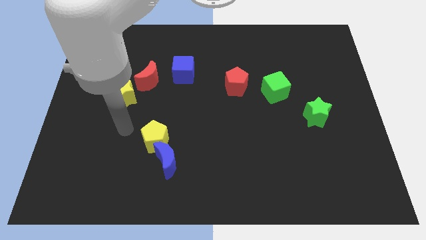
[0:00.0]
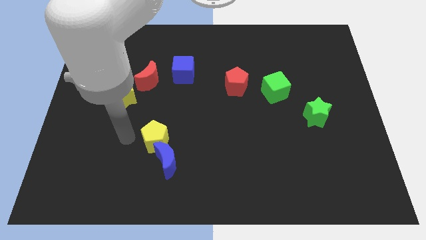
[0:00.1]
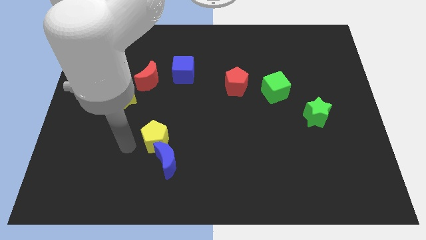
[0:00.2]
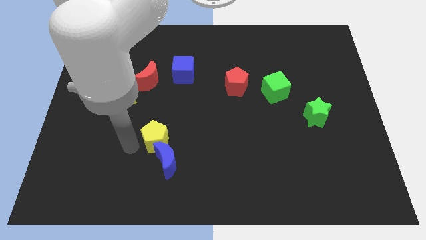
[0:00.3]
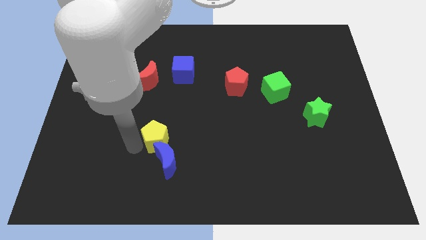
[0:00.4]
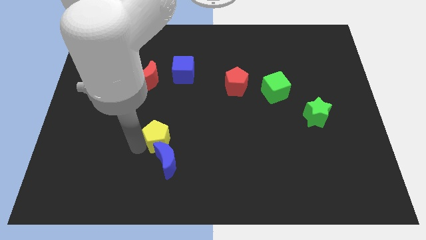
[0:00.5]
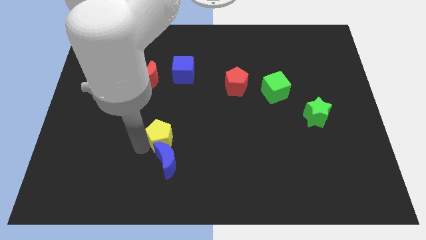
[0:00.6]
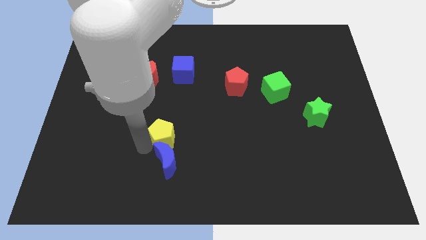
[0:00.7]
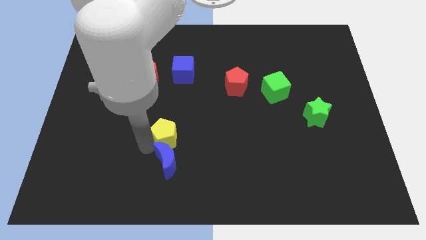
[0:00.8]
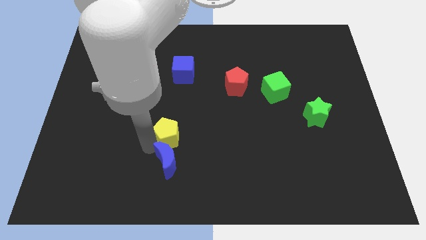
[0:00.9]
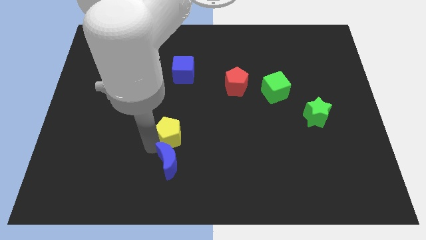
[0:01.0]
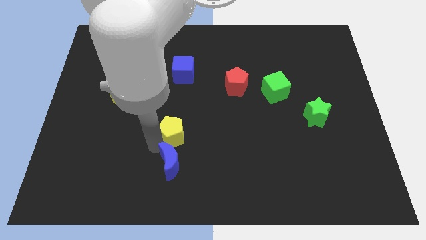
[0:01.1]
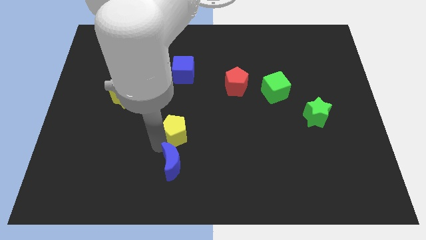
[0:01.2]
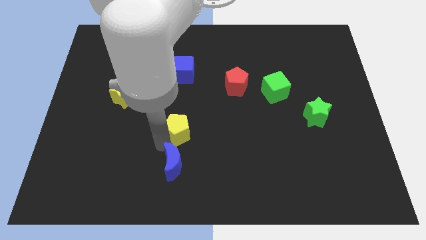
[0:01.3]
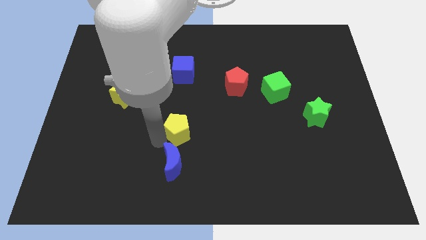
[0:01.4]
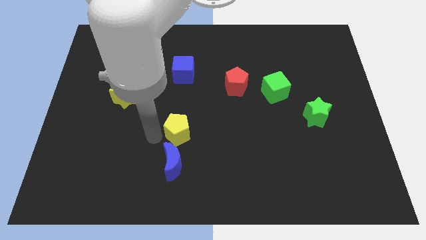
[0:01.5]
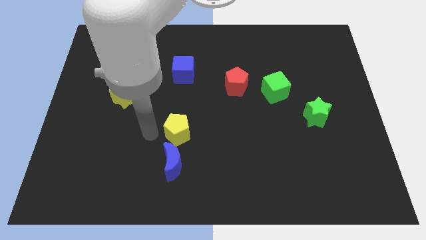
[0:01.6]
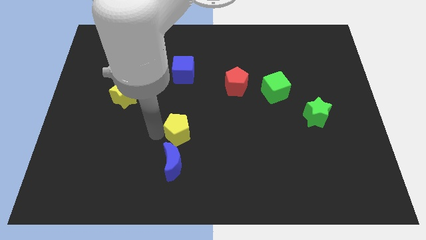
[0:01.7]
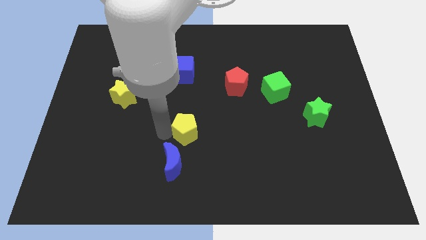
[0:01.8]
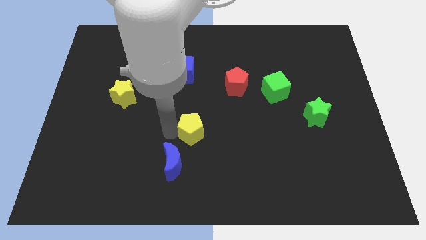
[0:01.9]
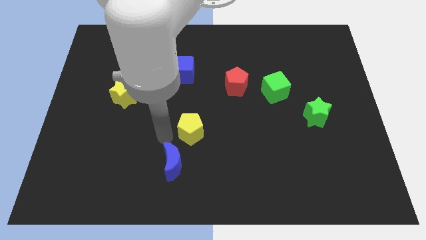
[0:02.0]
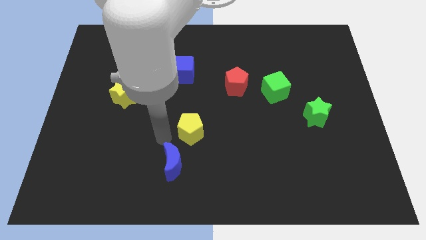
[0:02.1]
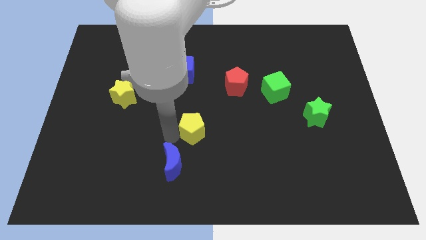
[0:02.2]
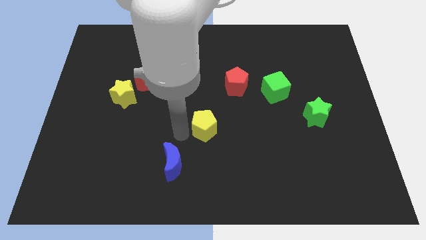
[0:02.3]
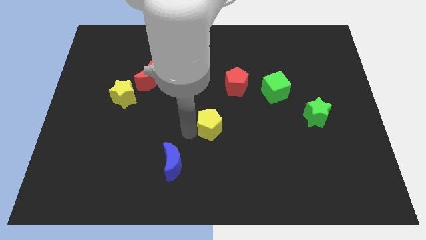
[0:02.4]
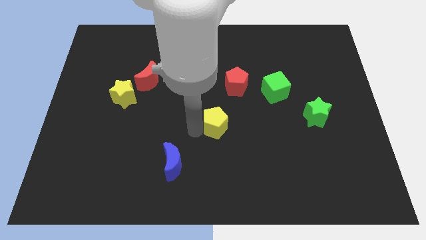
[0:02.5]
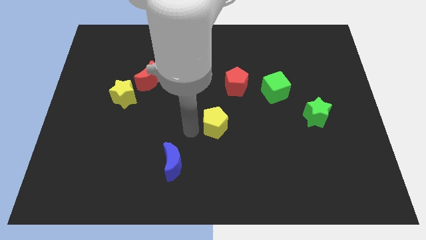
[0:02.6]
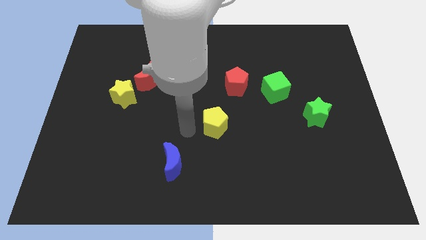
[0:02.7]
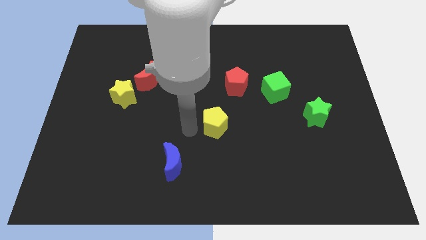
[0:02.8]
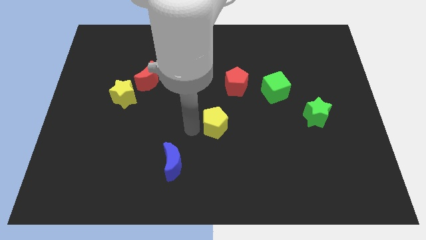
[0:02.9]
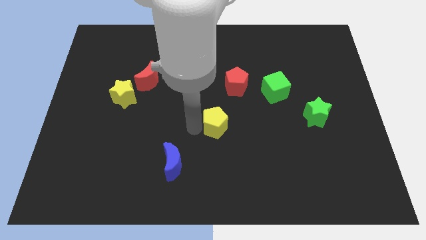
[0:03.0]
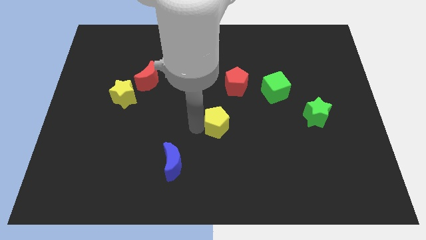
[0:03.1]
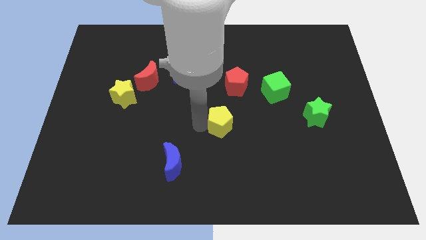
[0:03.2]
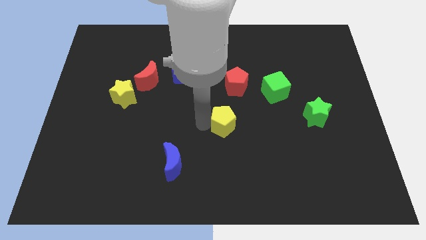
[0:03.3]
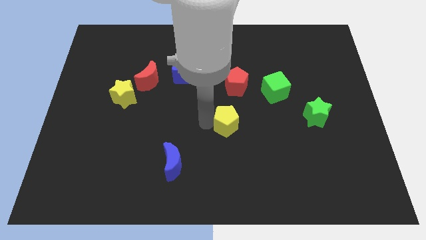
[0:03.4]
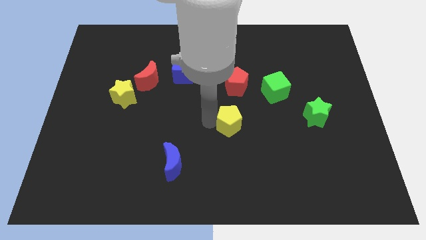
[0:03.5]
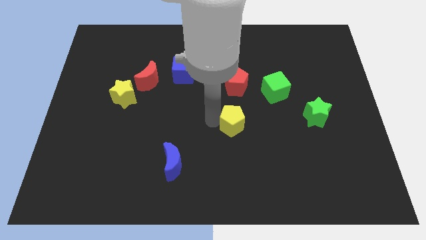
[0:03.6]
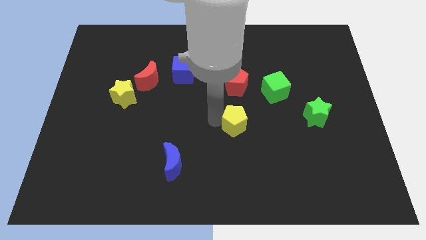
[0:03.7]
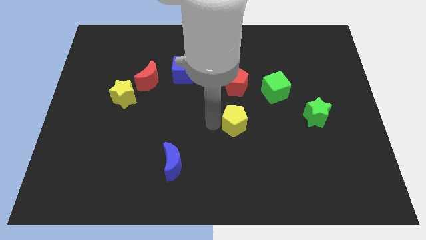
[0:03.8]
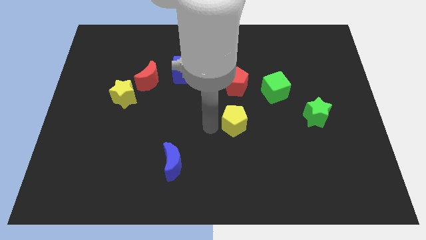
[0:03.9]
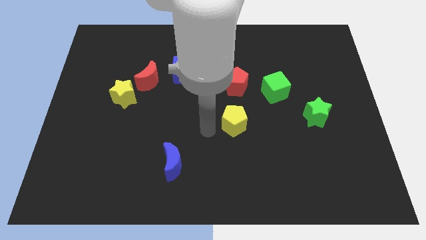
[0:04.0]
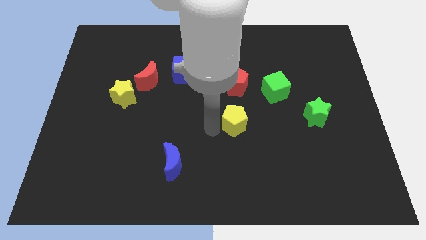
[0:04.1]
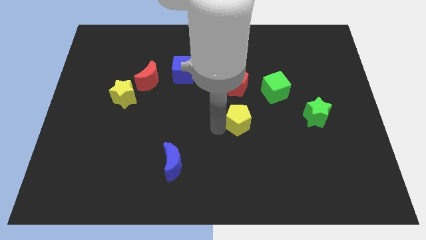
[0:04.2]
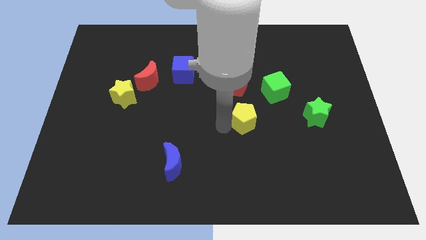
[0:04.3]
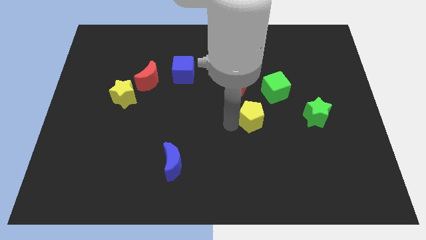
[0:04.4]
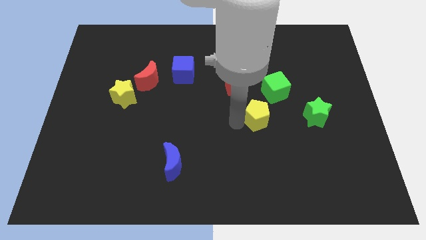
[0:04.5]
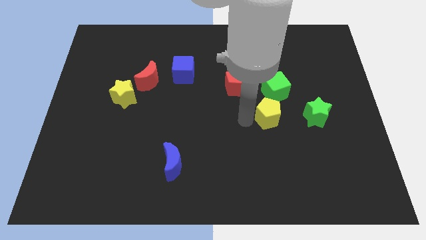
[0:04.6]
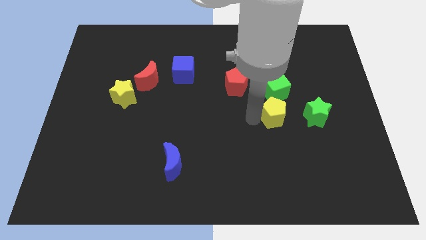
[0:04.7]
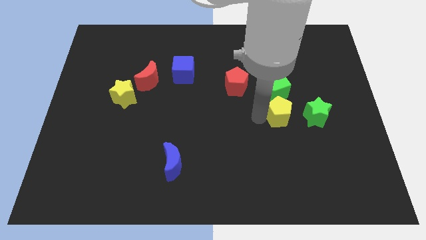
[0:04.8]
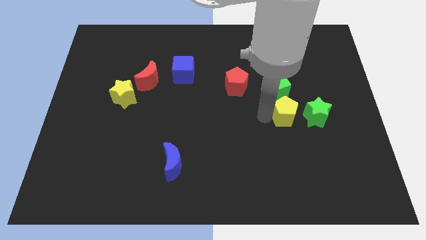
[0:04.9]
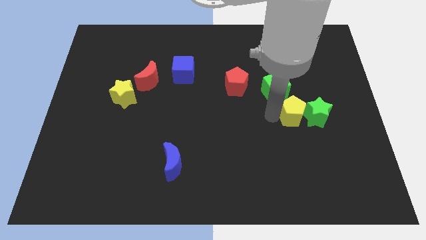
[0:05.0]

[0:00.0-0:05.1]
put the yellow pentagon next to the green star

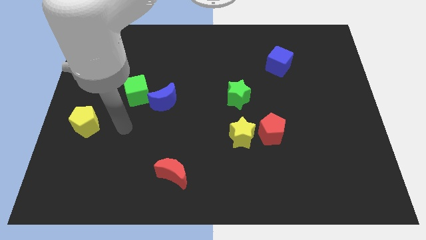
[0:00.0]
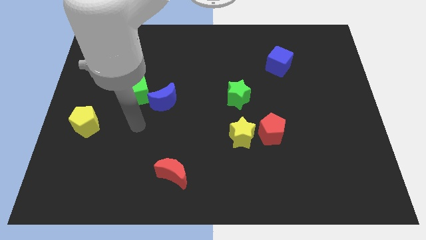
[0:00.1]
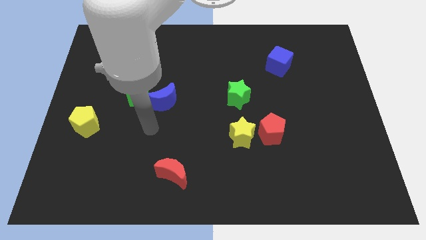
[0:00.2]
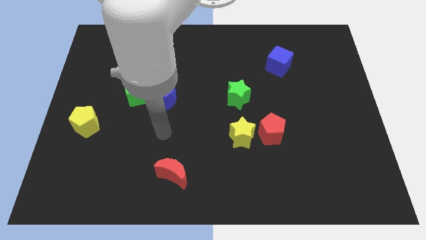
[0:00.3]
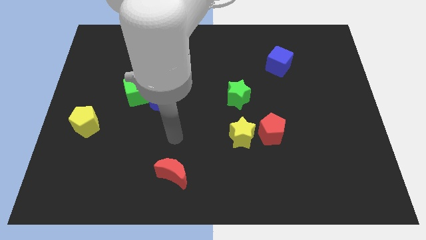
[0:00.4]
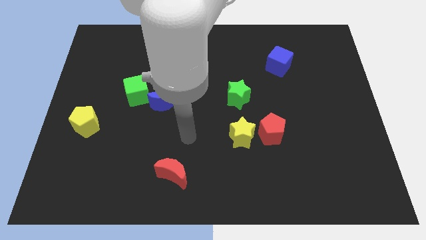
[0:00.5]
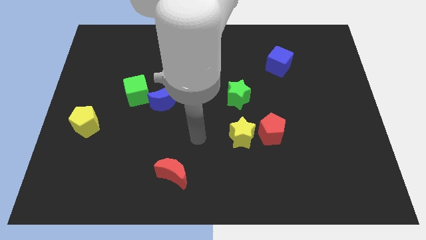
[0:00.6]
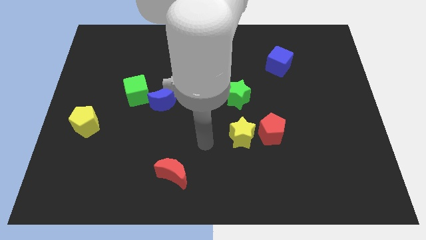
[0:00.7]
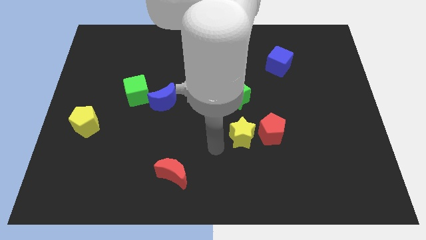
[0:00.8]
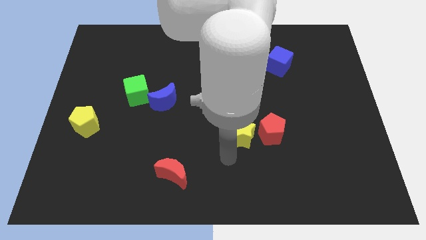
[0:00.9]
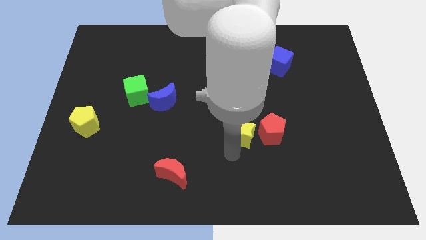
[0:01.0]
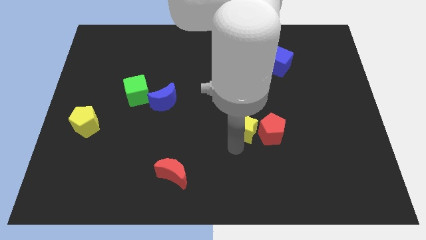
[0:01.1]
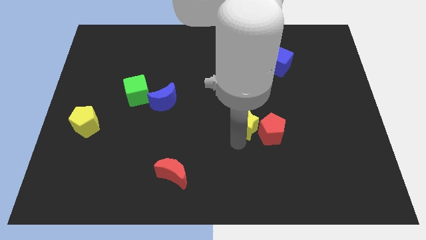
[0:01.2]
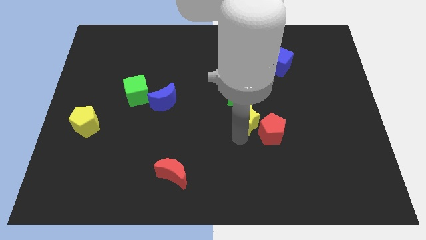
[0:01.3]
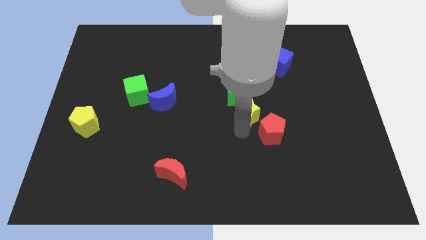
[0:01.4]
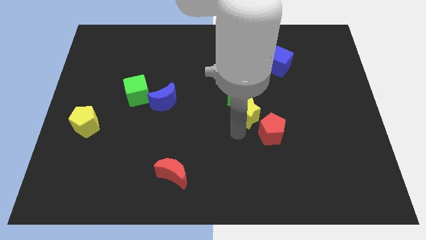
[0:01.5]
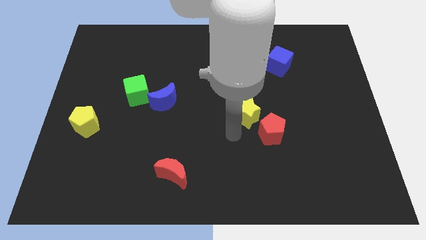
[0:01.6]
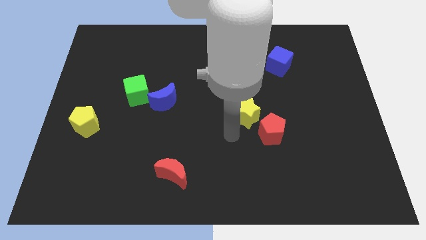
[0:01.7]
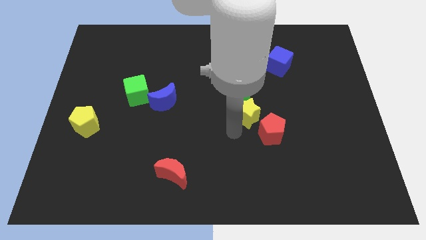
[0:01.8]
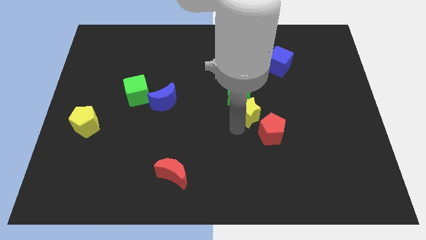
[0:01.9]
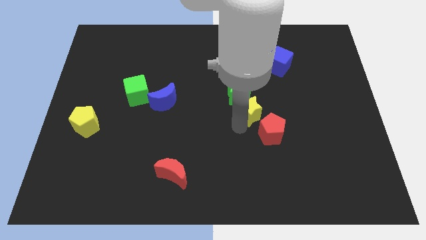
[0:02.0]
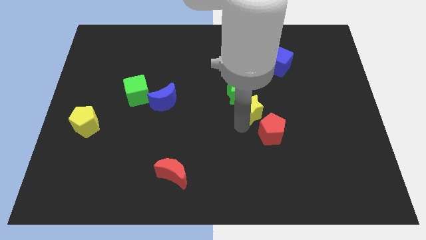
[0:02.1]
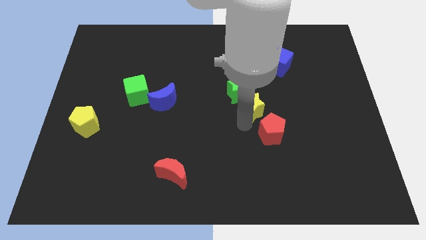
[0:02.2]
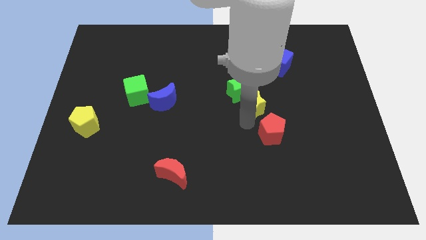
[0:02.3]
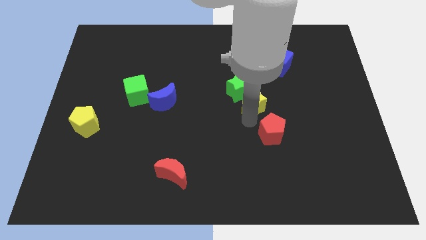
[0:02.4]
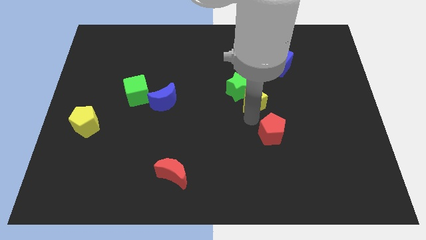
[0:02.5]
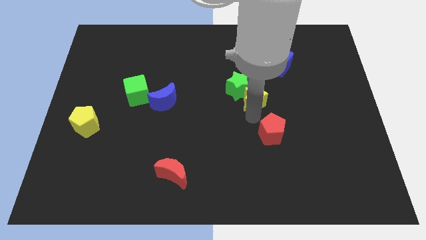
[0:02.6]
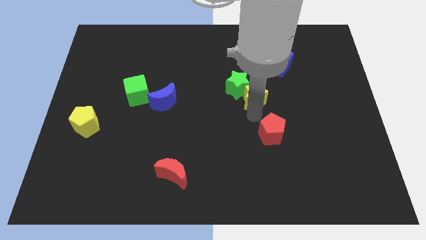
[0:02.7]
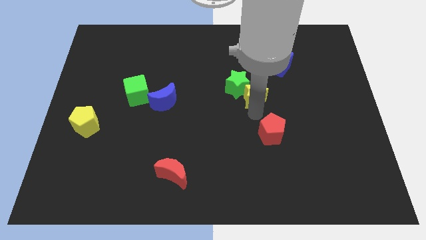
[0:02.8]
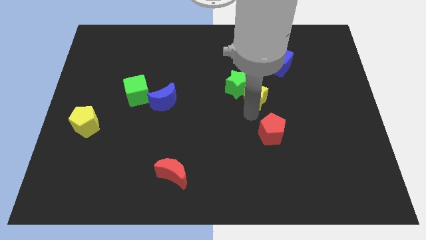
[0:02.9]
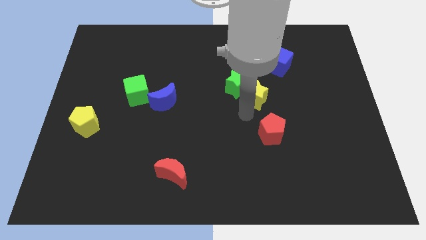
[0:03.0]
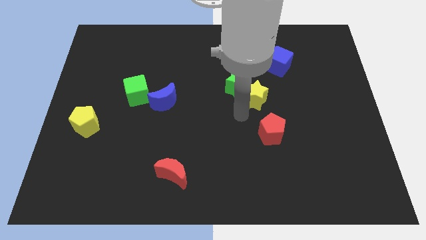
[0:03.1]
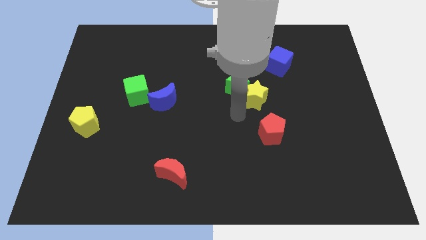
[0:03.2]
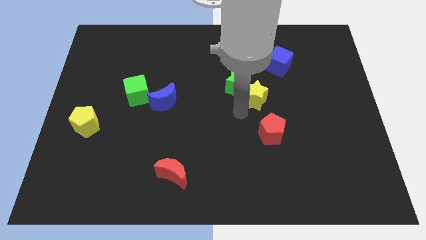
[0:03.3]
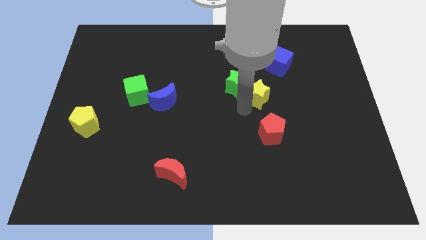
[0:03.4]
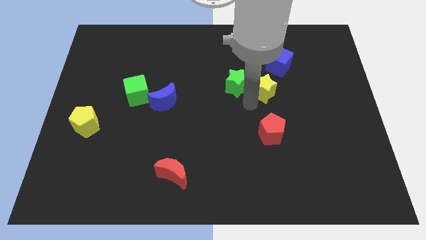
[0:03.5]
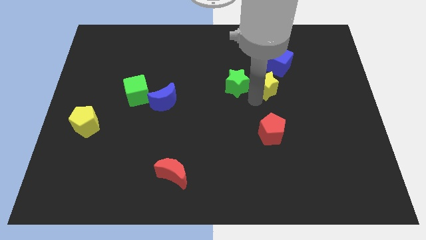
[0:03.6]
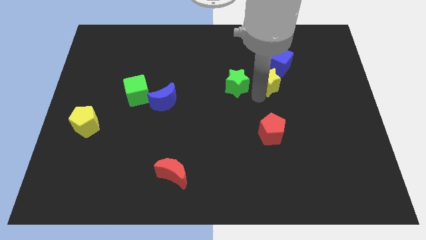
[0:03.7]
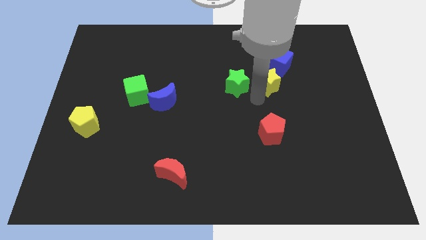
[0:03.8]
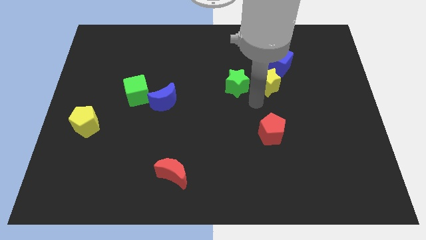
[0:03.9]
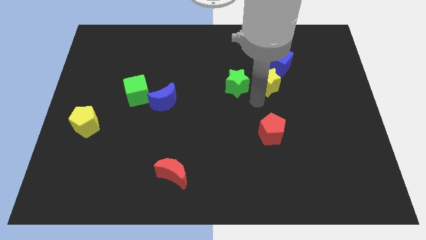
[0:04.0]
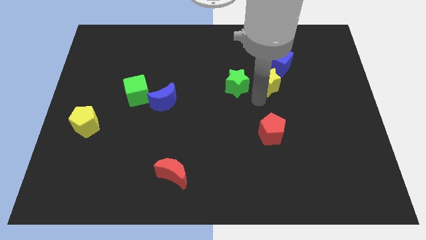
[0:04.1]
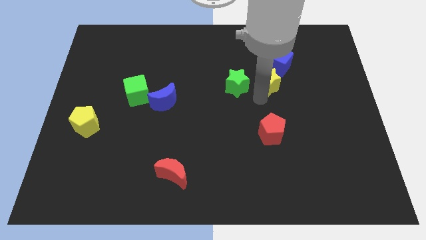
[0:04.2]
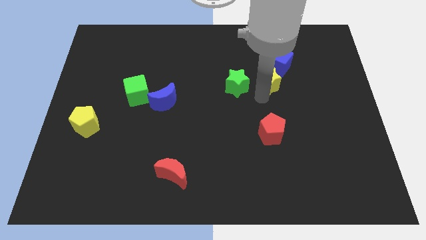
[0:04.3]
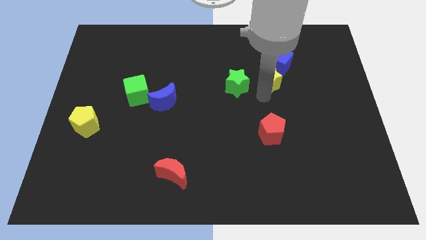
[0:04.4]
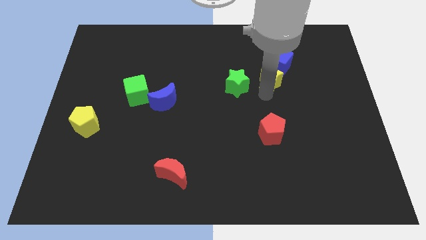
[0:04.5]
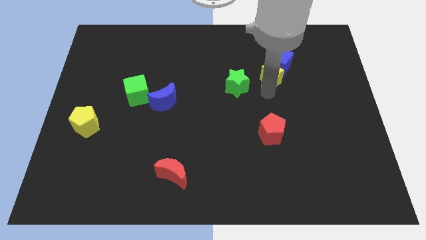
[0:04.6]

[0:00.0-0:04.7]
move the yellow star next to the blue cube
